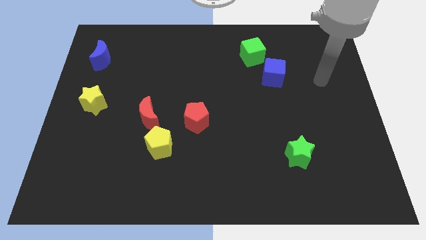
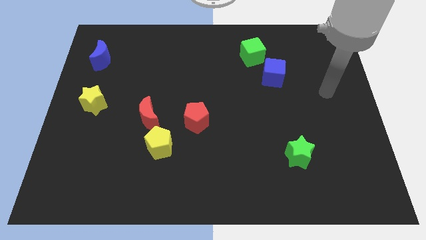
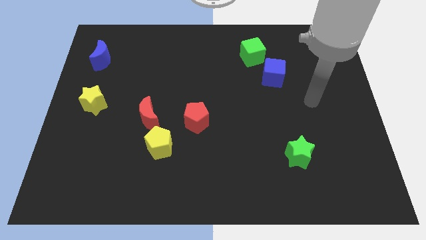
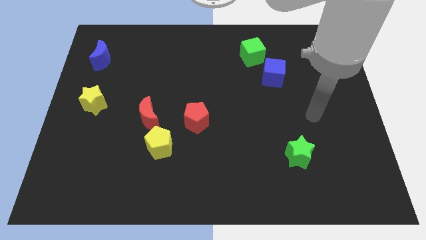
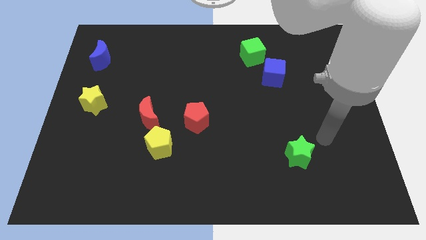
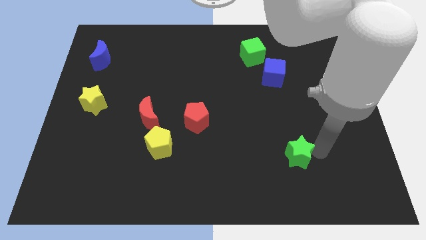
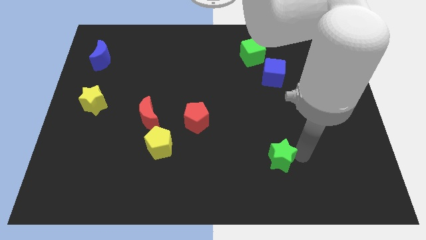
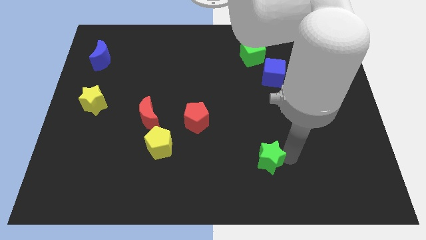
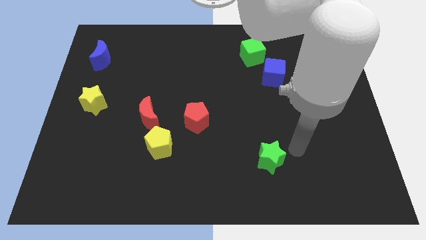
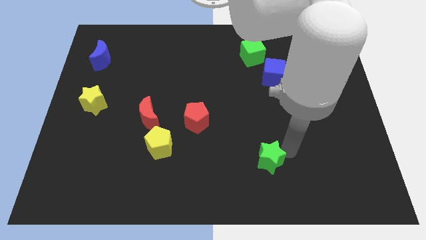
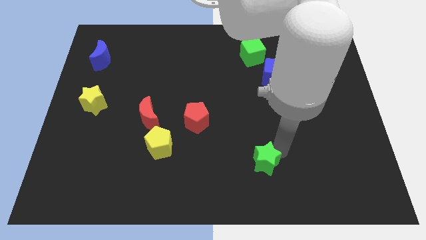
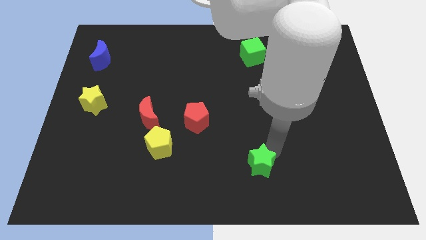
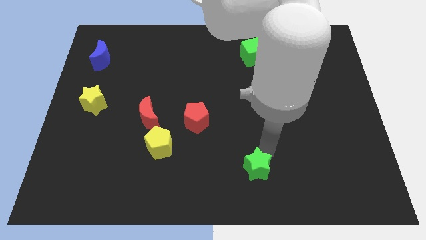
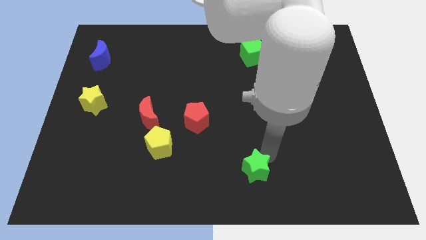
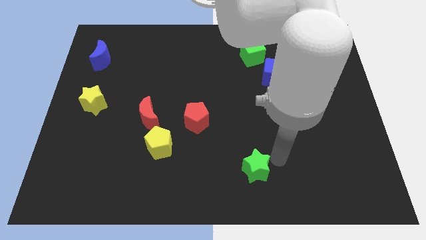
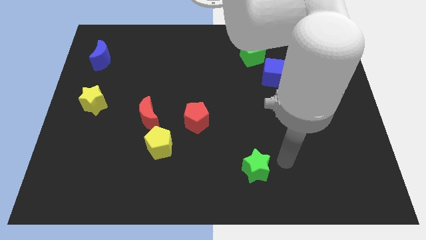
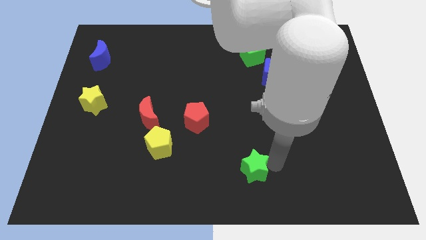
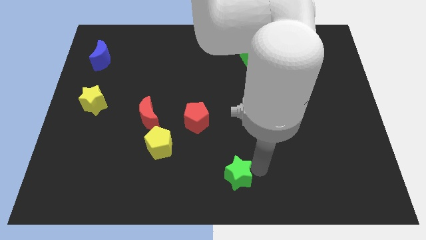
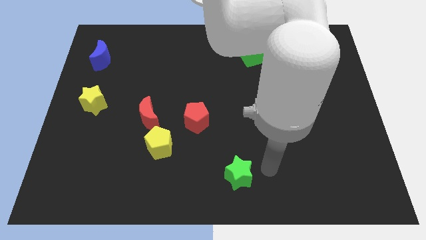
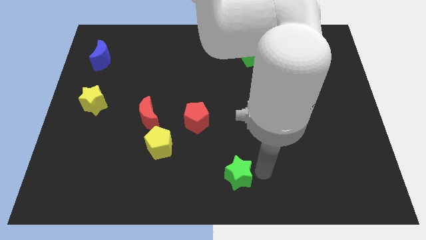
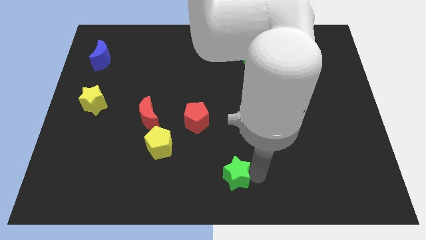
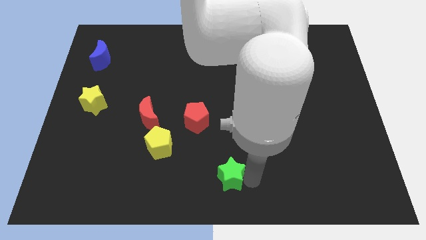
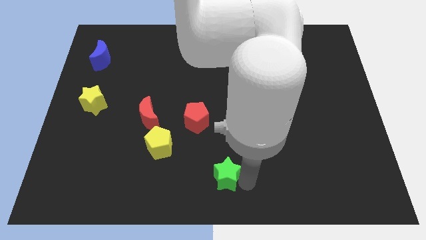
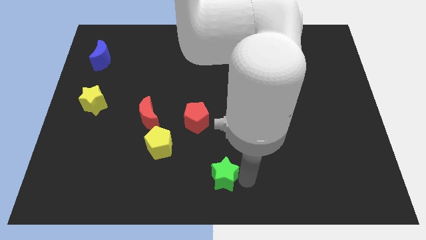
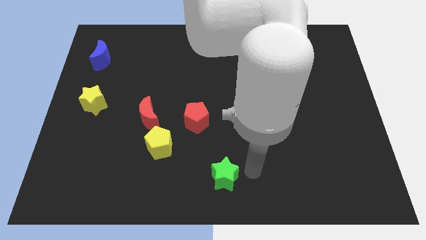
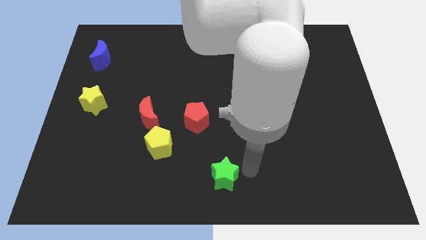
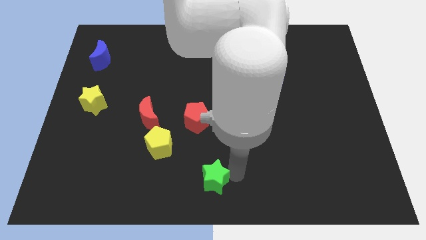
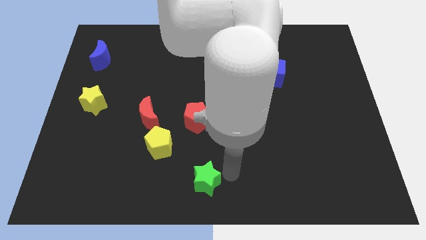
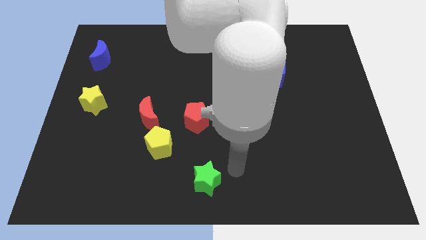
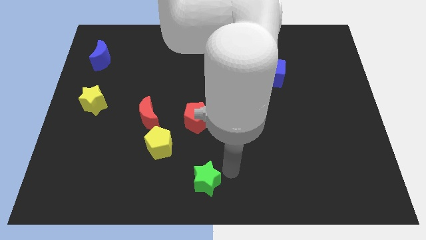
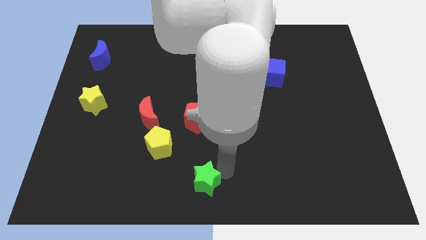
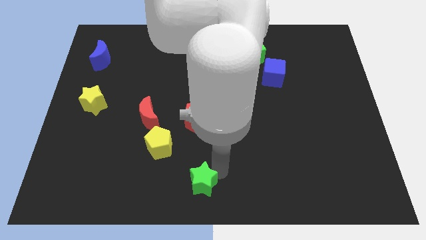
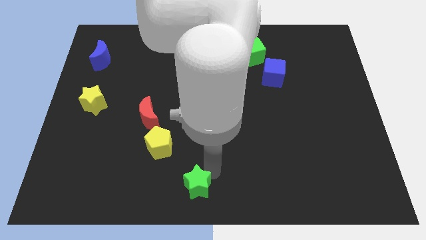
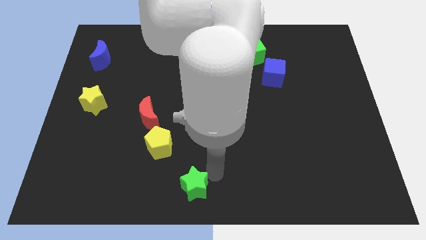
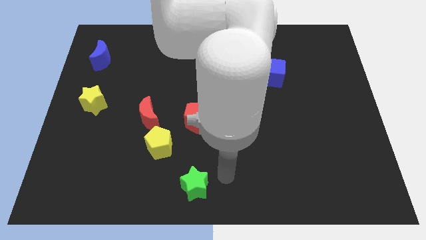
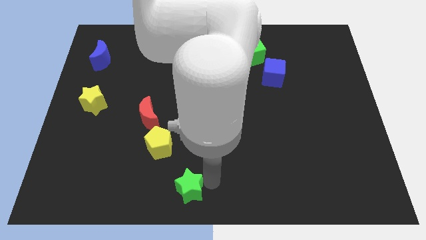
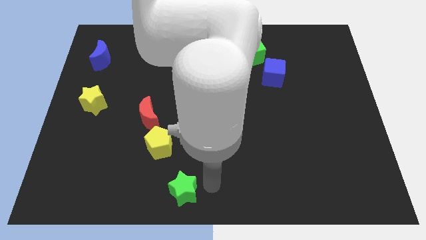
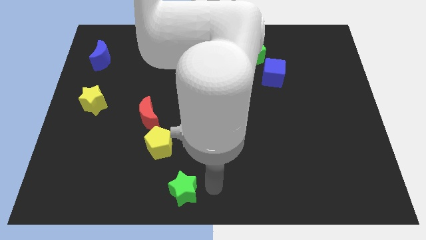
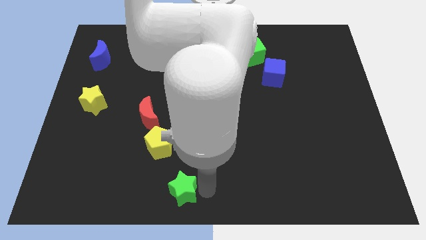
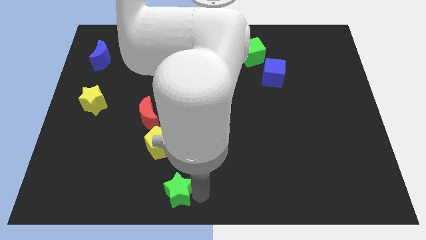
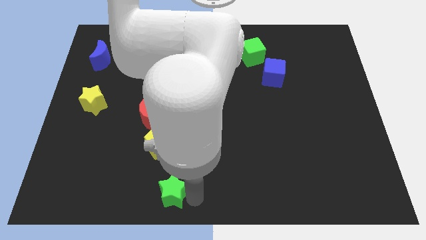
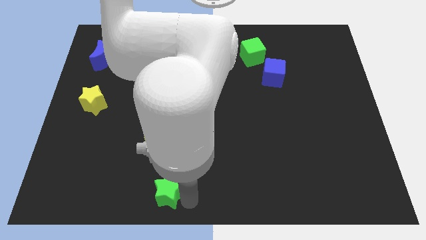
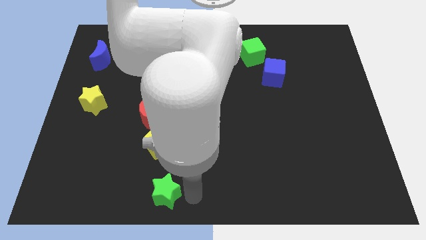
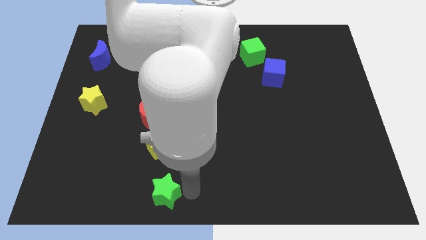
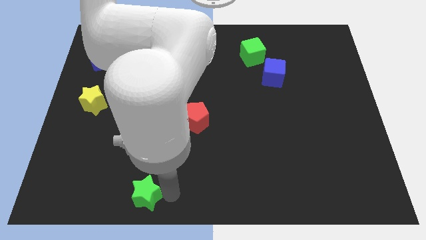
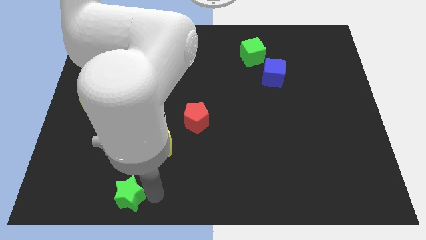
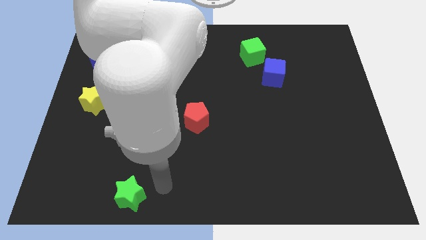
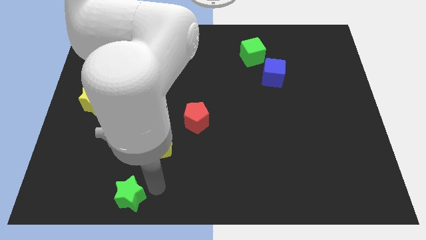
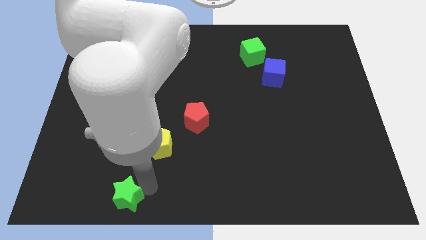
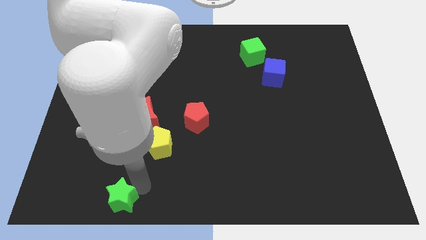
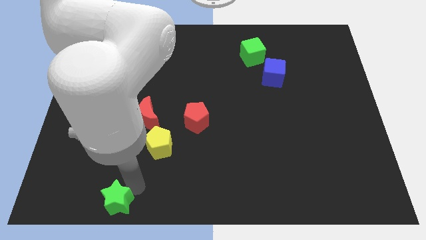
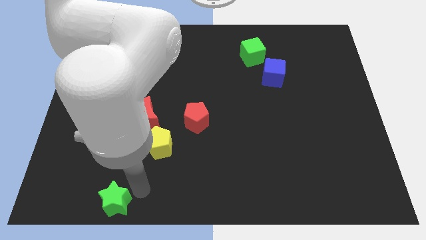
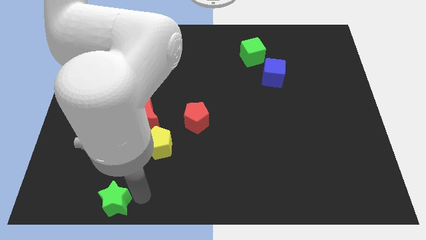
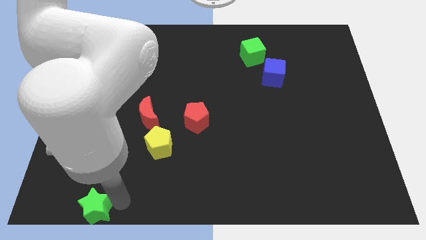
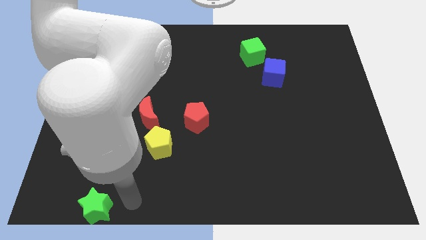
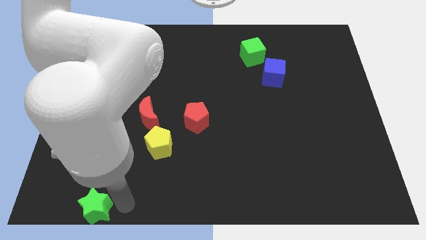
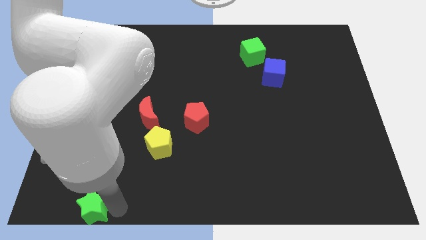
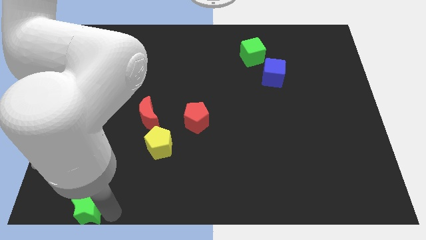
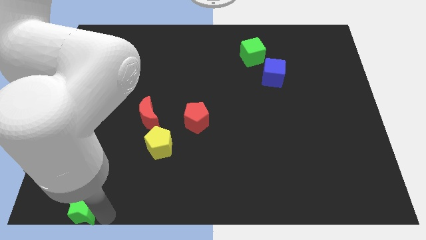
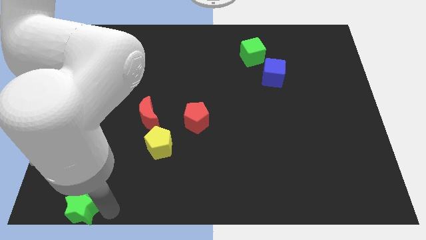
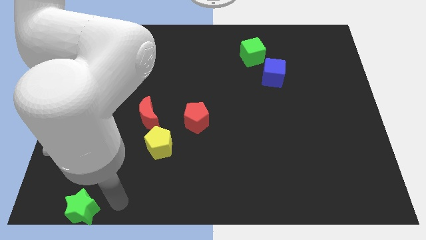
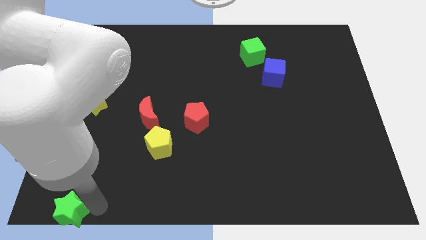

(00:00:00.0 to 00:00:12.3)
put the green star to the lower left corner

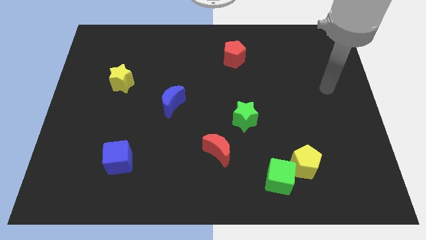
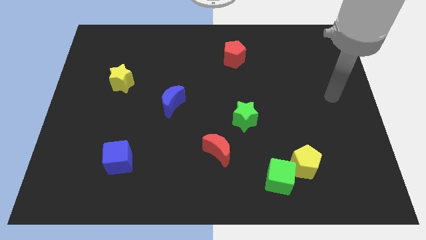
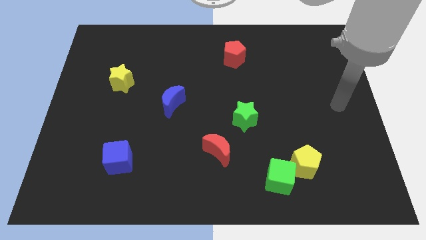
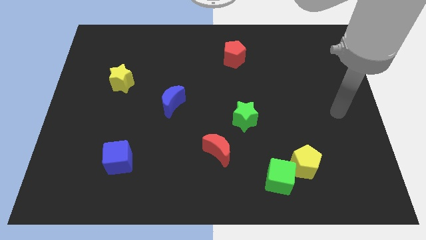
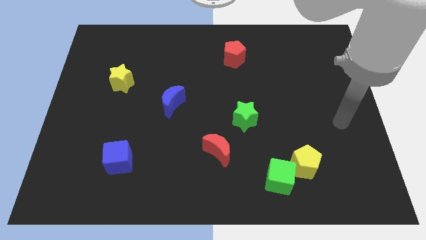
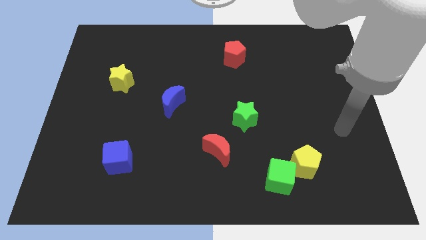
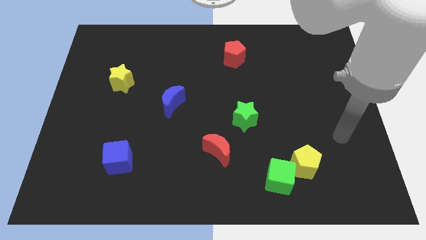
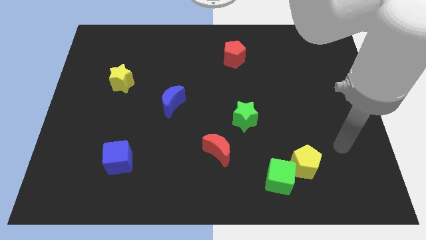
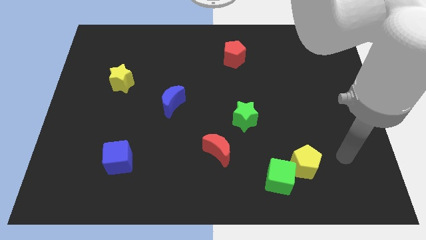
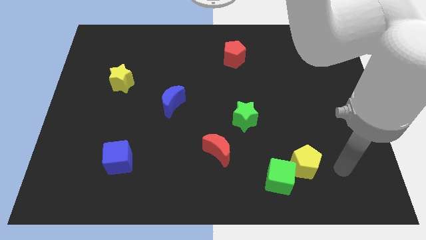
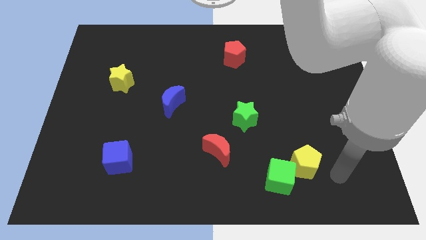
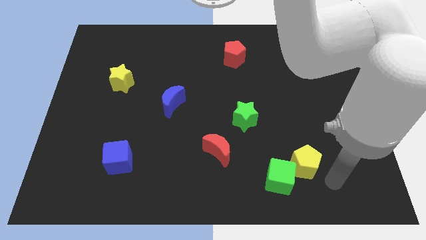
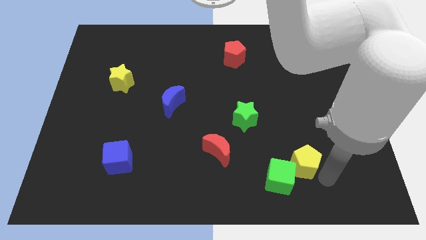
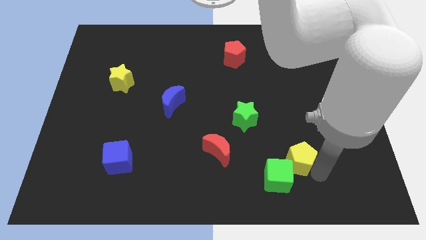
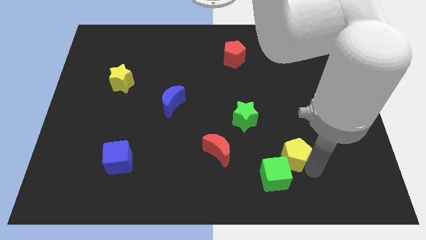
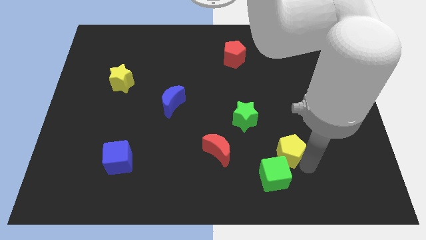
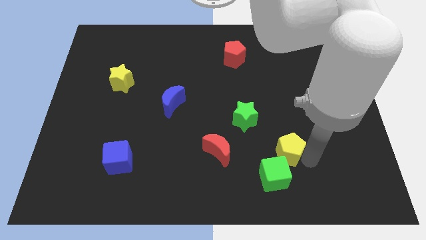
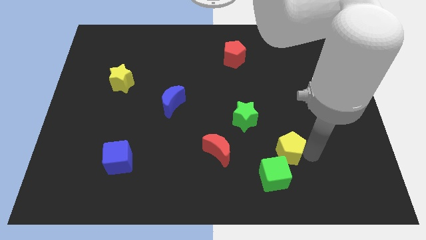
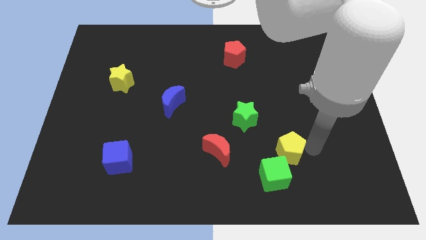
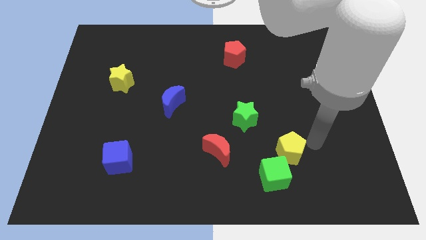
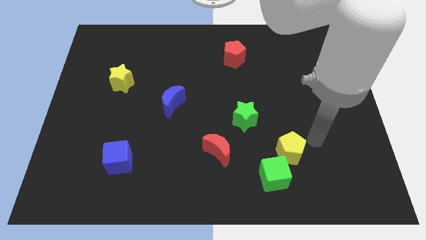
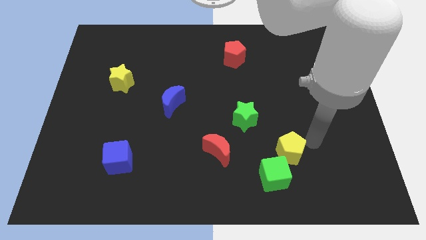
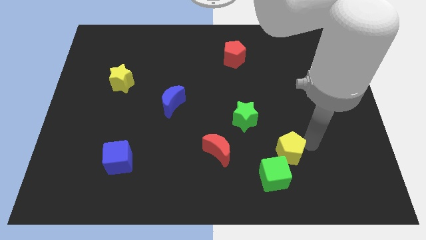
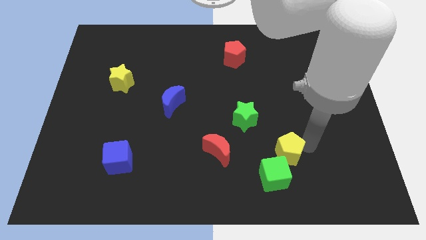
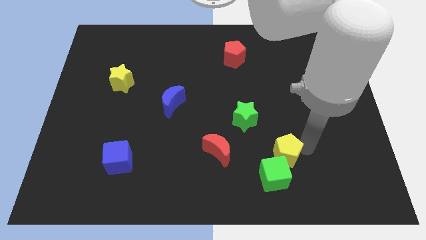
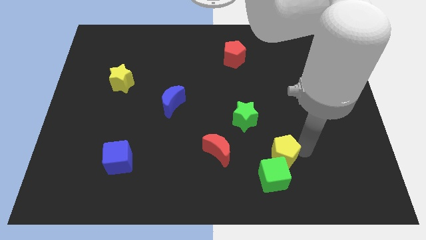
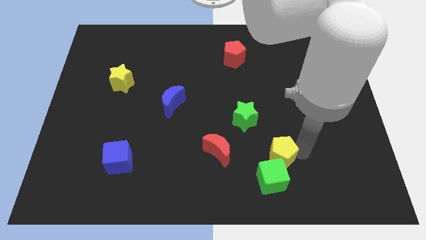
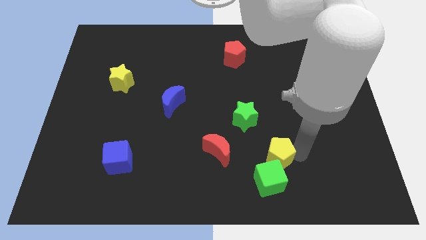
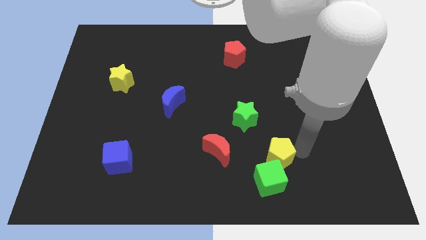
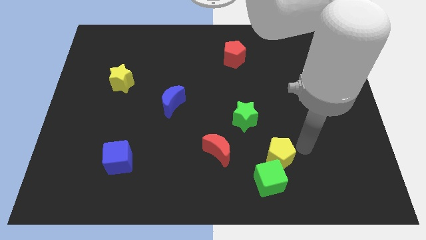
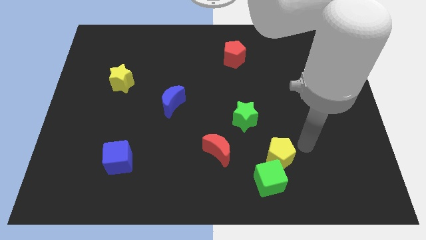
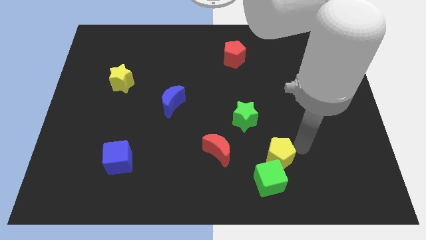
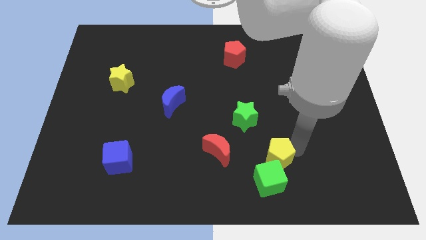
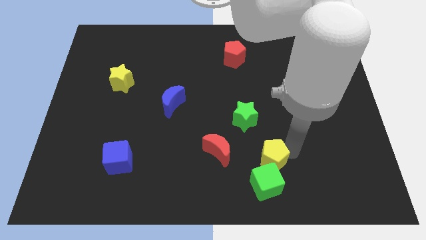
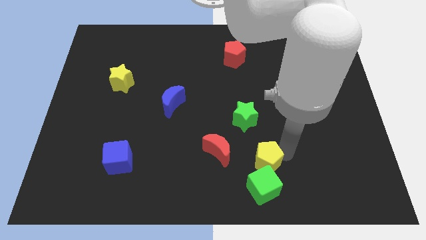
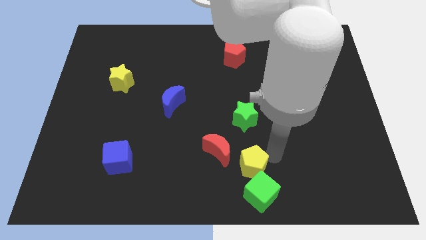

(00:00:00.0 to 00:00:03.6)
put the yellow pentagon to the bottom side
